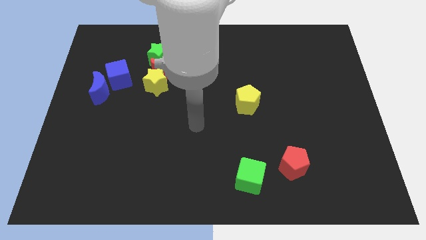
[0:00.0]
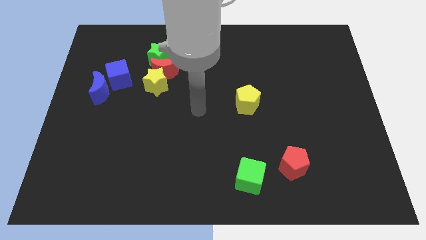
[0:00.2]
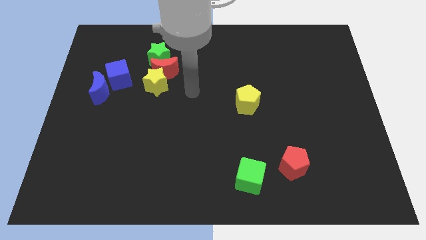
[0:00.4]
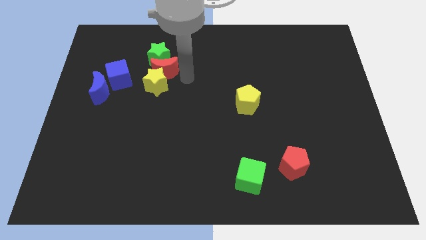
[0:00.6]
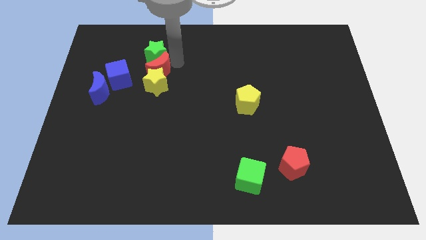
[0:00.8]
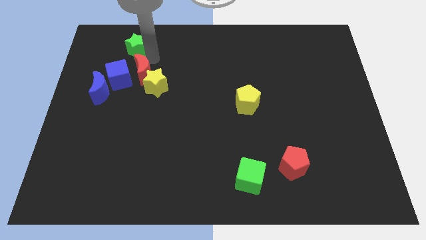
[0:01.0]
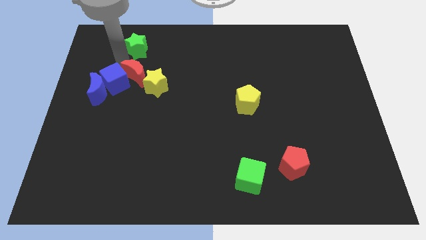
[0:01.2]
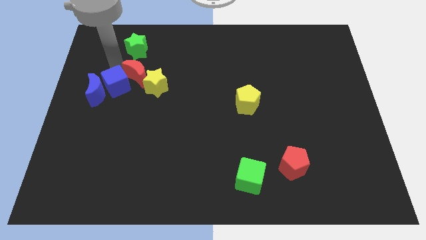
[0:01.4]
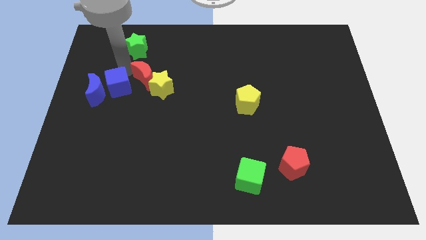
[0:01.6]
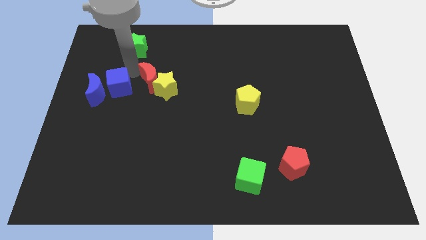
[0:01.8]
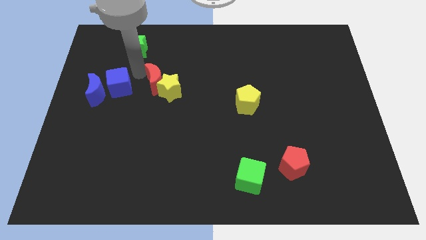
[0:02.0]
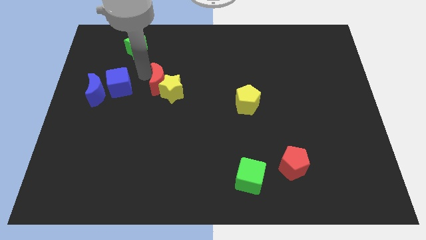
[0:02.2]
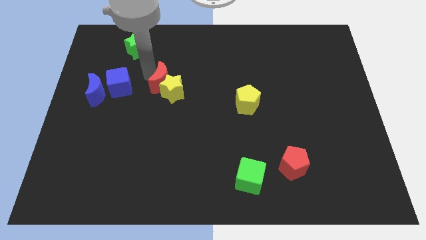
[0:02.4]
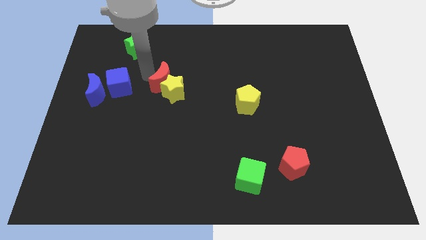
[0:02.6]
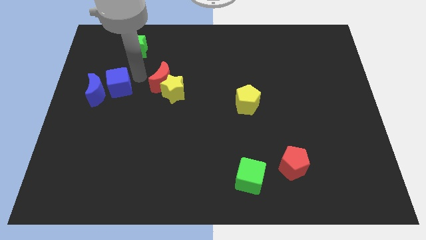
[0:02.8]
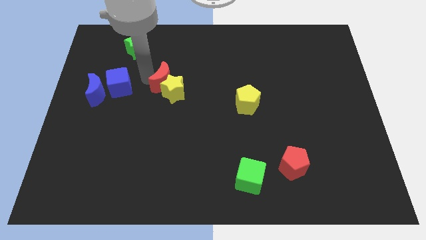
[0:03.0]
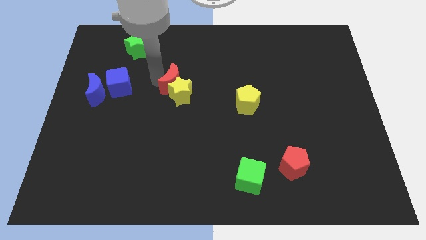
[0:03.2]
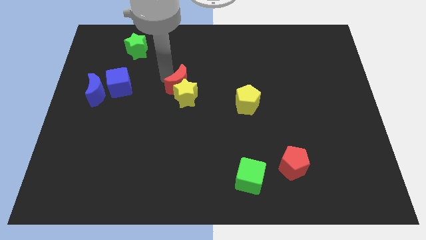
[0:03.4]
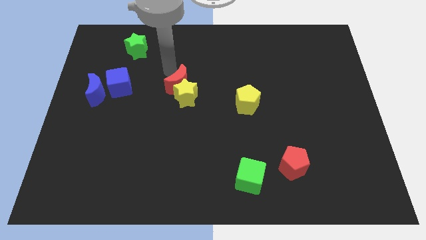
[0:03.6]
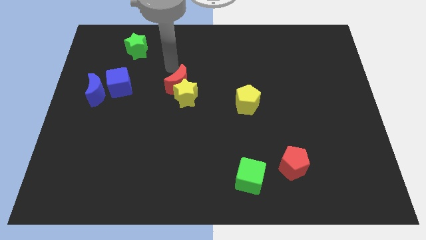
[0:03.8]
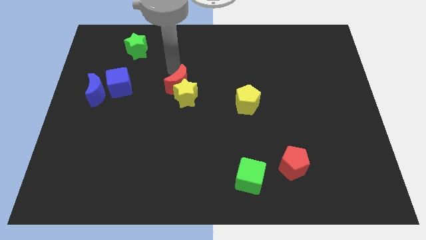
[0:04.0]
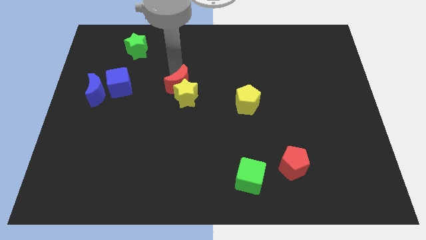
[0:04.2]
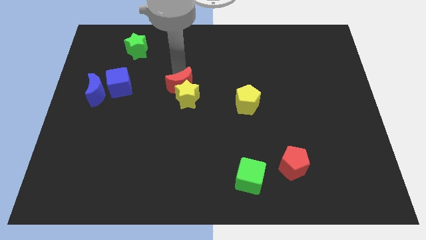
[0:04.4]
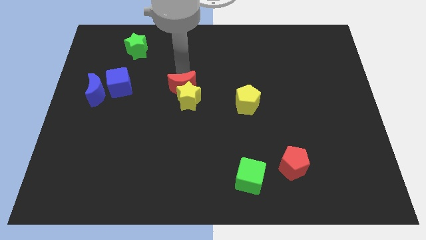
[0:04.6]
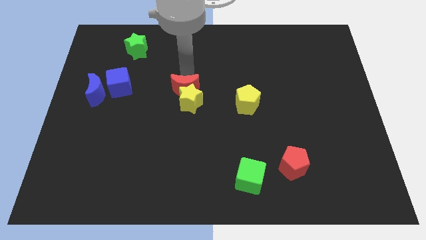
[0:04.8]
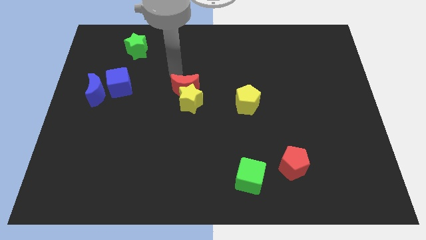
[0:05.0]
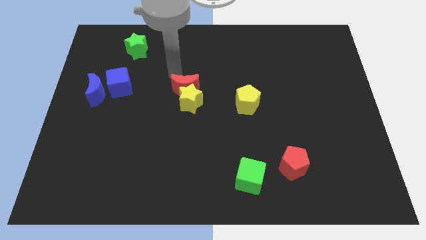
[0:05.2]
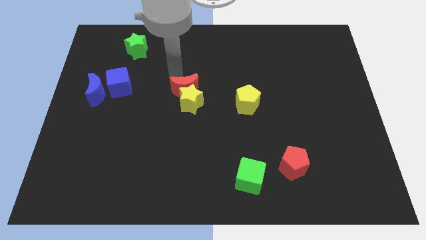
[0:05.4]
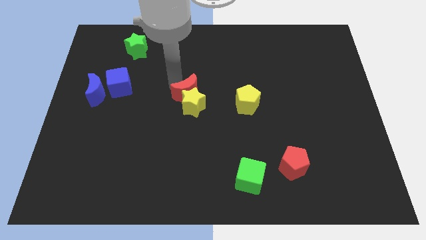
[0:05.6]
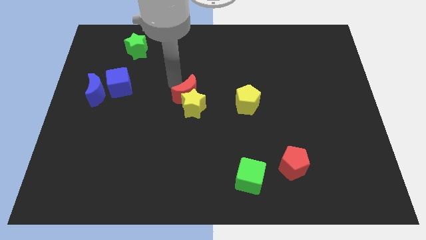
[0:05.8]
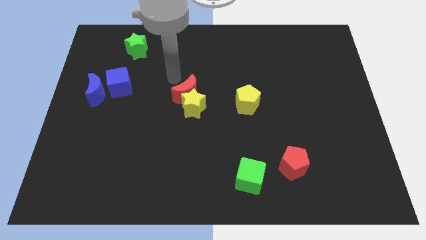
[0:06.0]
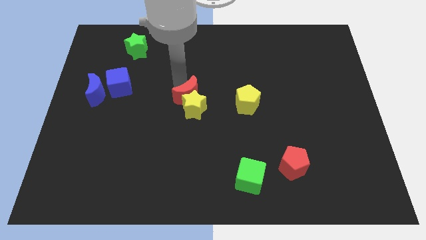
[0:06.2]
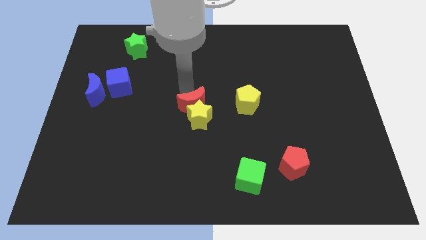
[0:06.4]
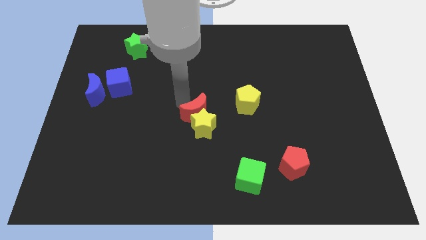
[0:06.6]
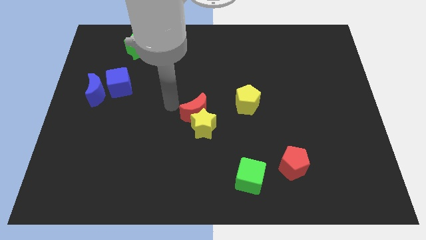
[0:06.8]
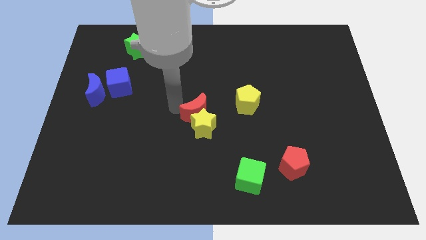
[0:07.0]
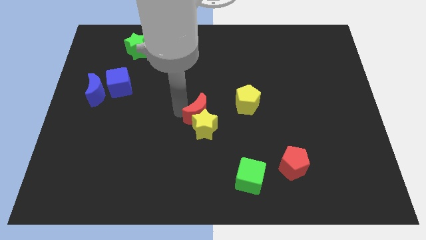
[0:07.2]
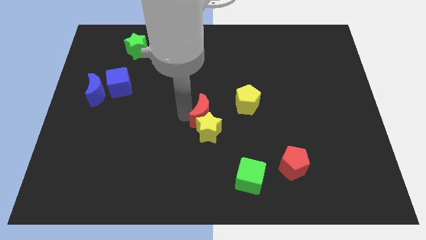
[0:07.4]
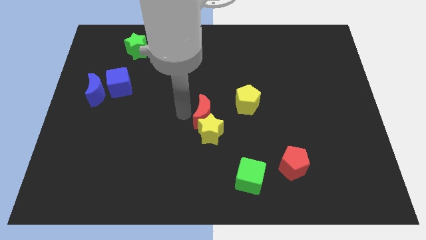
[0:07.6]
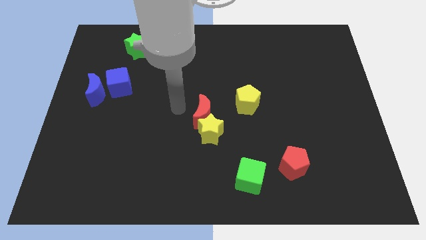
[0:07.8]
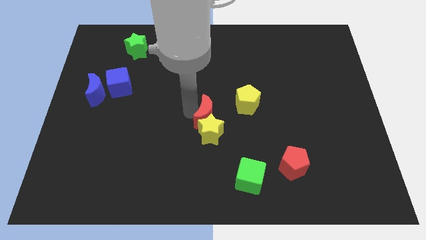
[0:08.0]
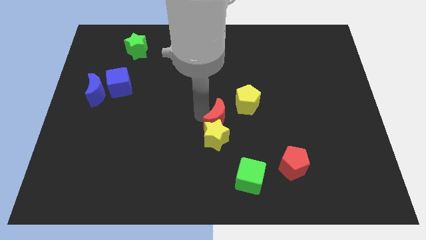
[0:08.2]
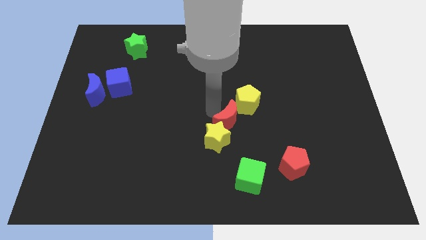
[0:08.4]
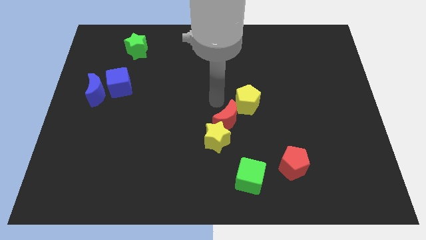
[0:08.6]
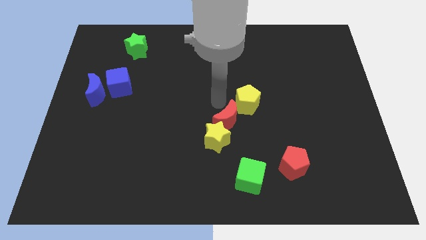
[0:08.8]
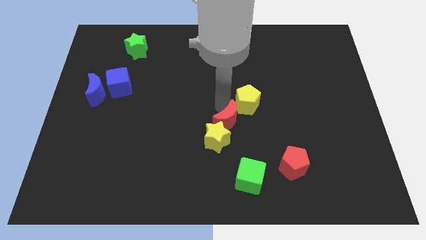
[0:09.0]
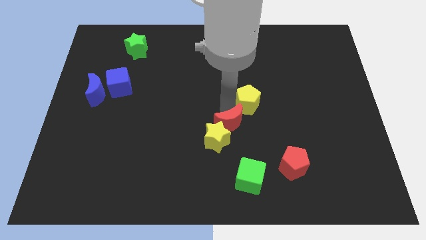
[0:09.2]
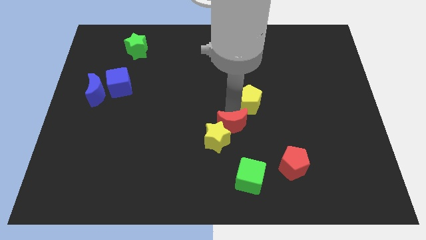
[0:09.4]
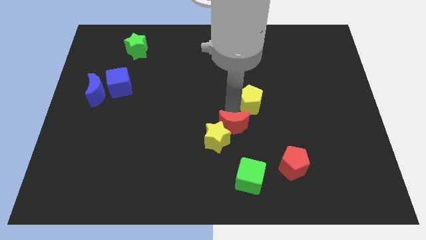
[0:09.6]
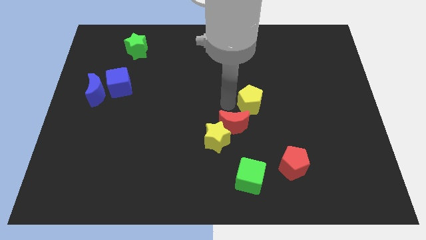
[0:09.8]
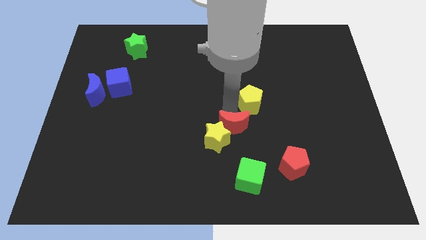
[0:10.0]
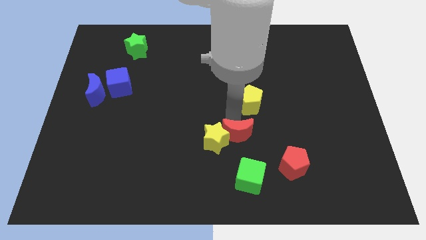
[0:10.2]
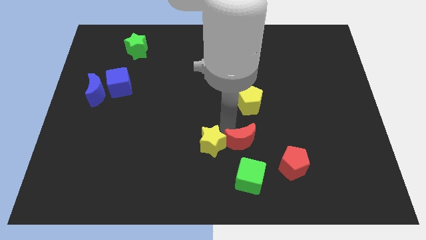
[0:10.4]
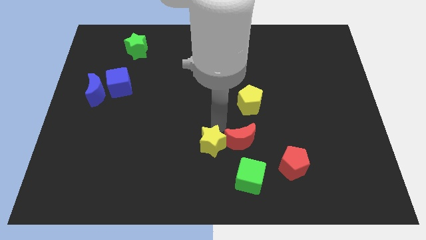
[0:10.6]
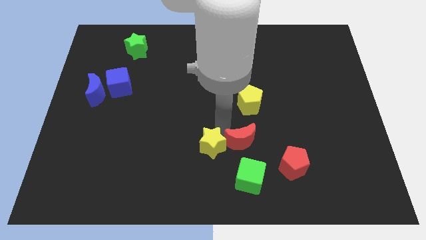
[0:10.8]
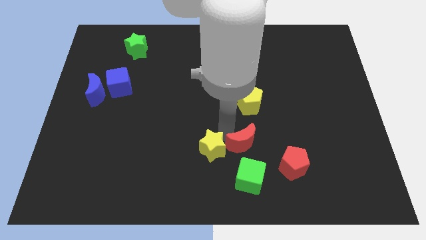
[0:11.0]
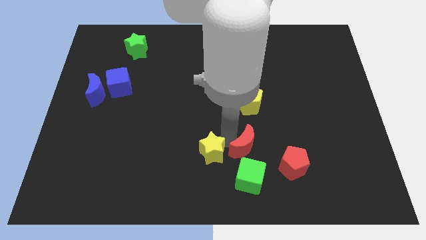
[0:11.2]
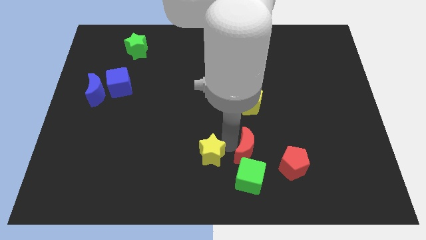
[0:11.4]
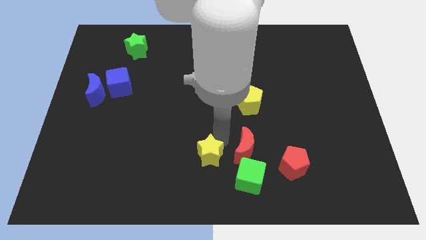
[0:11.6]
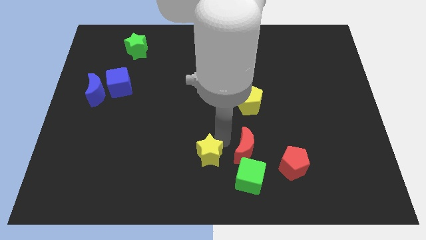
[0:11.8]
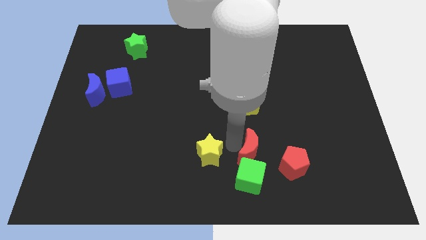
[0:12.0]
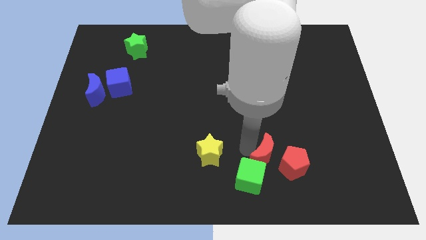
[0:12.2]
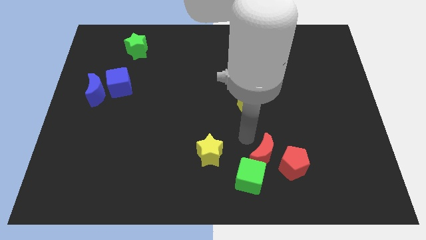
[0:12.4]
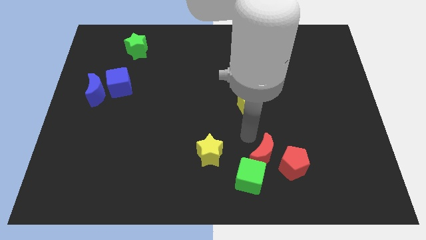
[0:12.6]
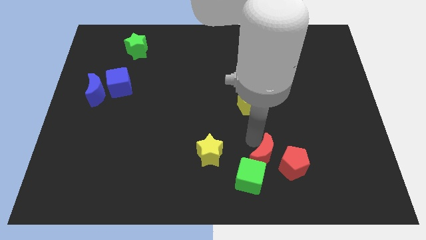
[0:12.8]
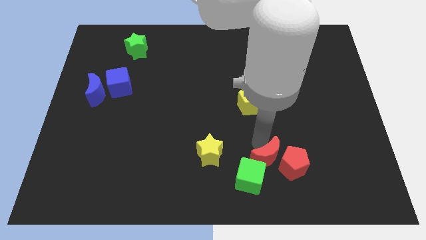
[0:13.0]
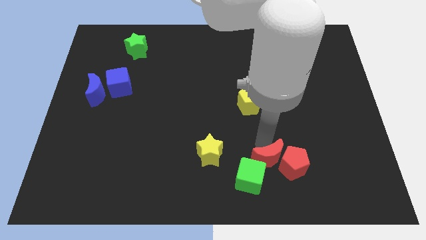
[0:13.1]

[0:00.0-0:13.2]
put the red moon right of the green cube
